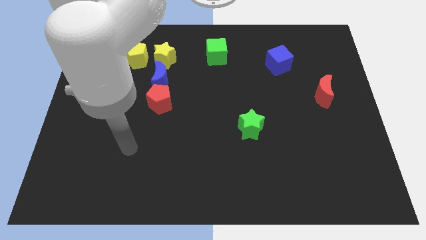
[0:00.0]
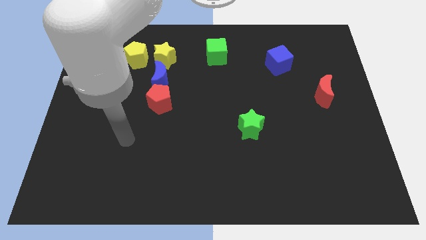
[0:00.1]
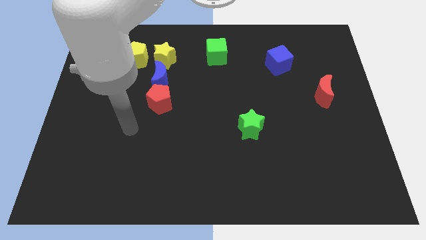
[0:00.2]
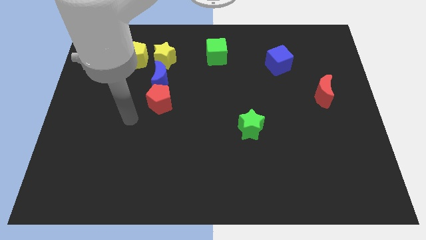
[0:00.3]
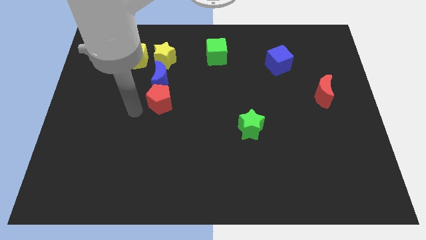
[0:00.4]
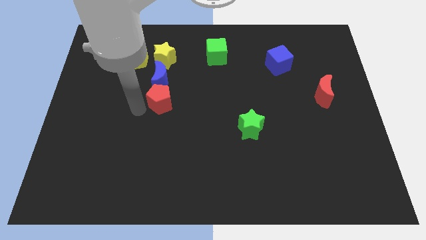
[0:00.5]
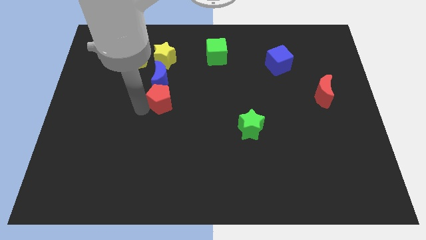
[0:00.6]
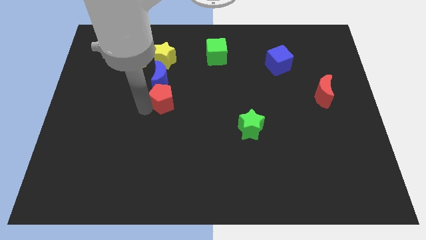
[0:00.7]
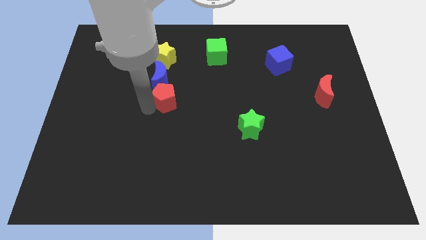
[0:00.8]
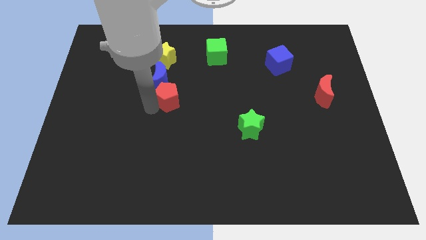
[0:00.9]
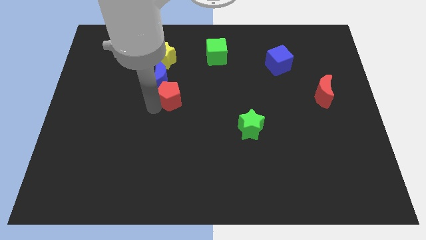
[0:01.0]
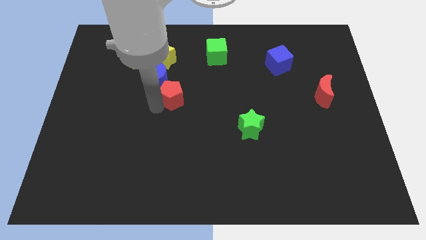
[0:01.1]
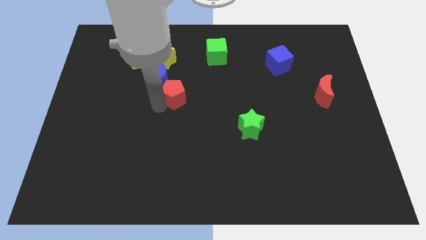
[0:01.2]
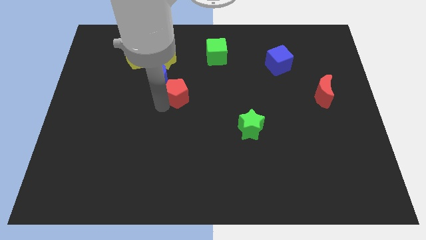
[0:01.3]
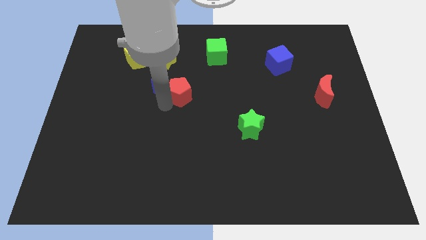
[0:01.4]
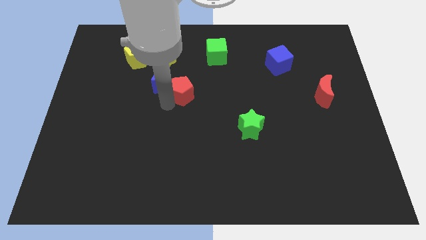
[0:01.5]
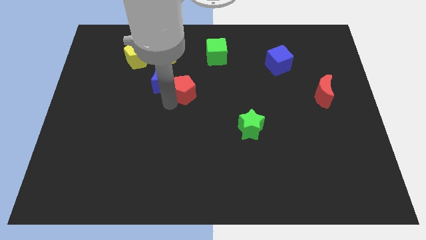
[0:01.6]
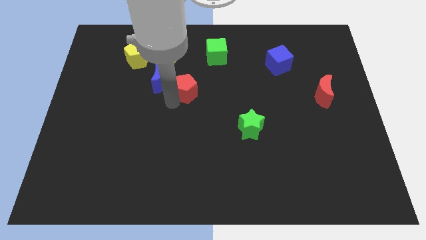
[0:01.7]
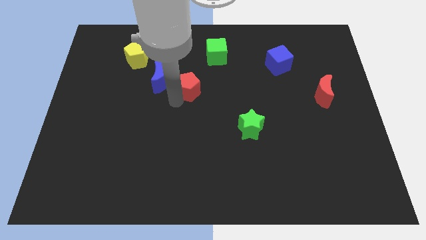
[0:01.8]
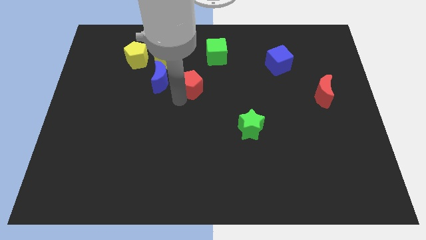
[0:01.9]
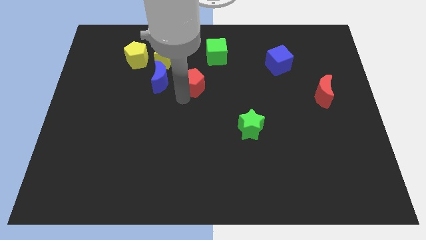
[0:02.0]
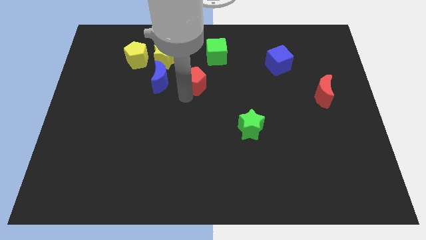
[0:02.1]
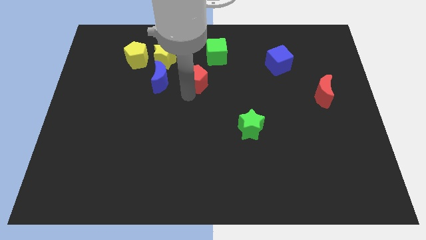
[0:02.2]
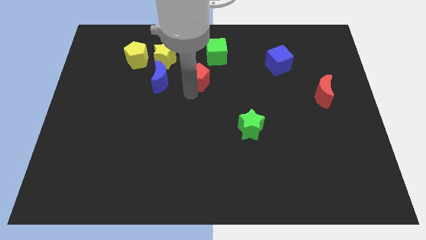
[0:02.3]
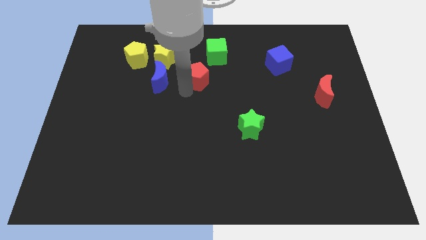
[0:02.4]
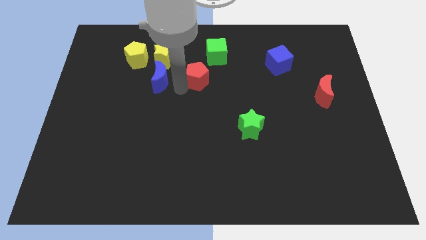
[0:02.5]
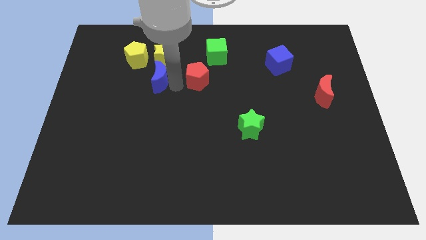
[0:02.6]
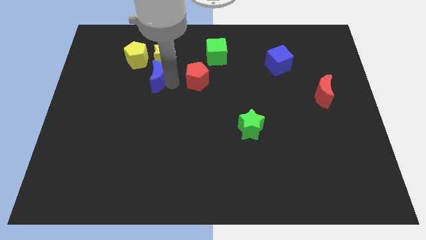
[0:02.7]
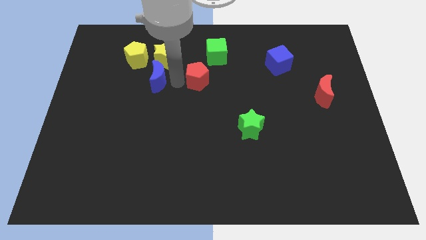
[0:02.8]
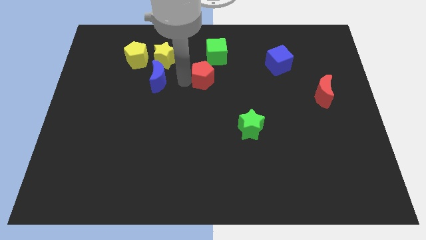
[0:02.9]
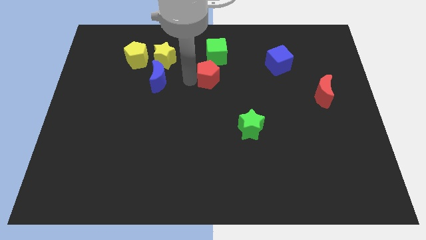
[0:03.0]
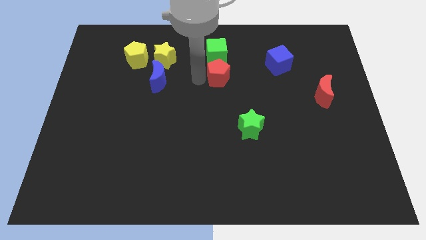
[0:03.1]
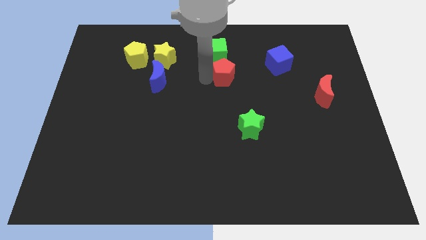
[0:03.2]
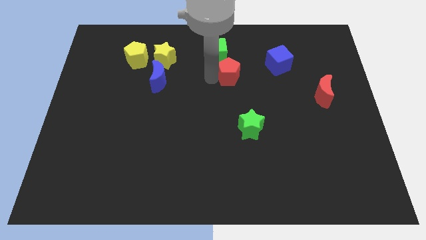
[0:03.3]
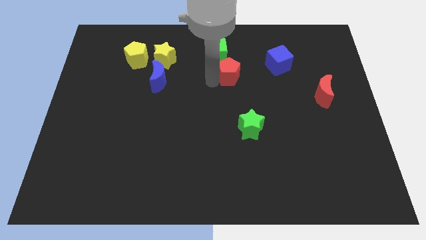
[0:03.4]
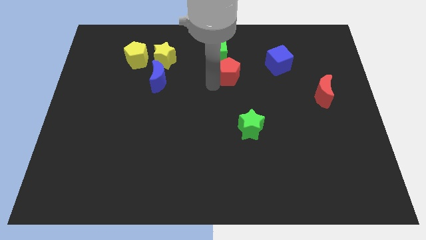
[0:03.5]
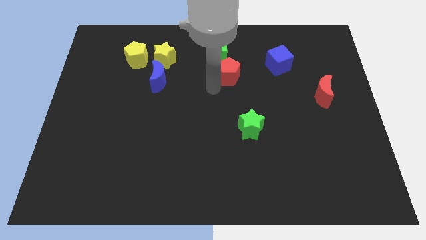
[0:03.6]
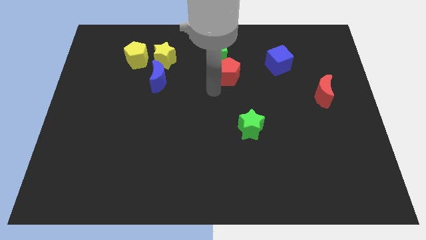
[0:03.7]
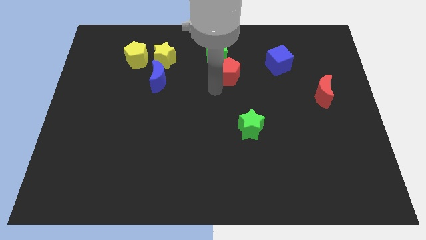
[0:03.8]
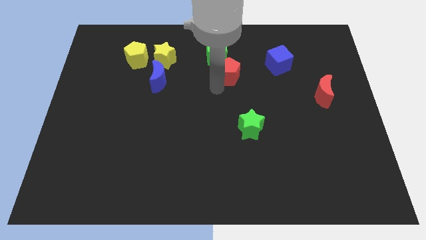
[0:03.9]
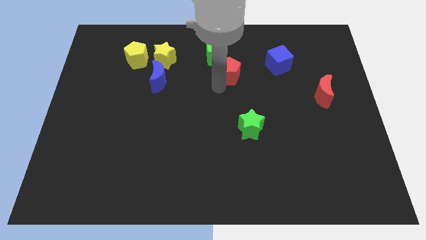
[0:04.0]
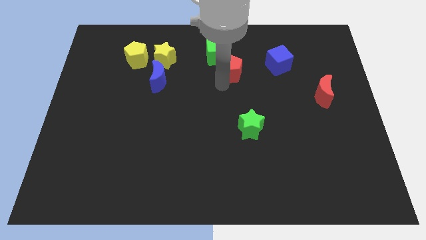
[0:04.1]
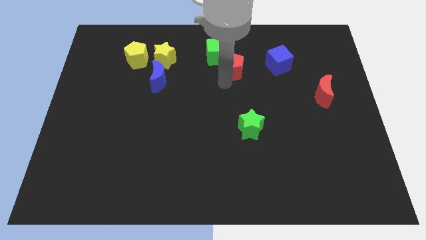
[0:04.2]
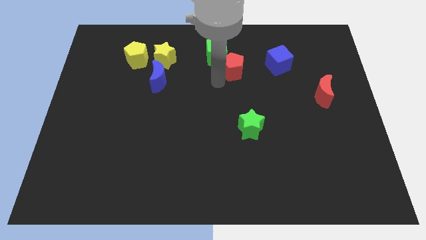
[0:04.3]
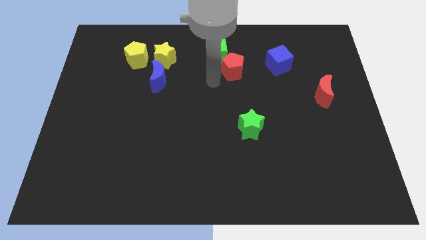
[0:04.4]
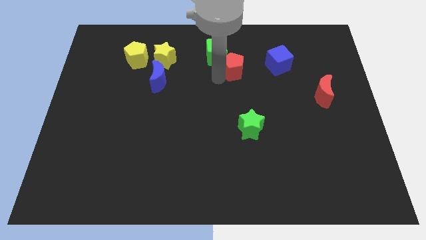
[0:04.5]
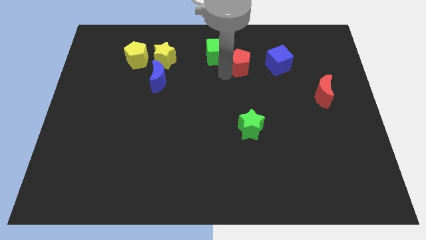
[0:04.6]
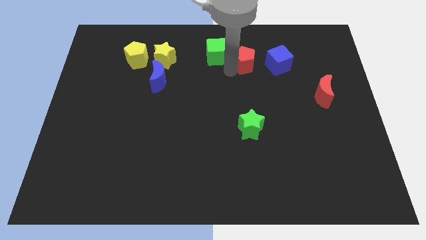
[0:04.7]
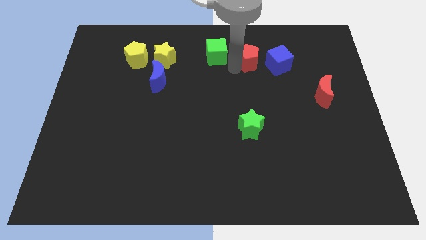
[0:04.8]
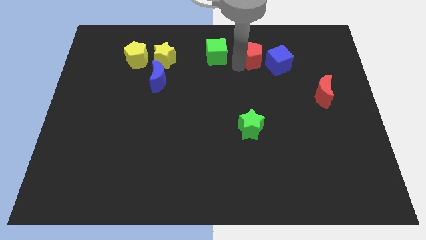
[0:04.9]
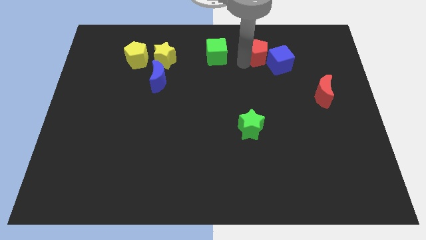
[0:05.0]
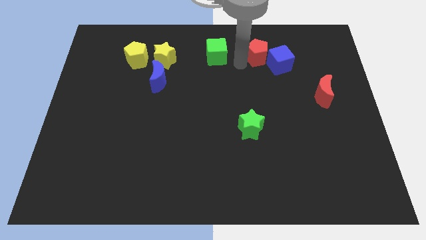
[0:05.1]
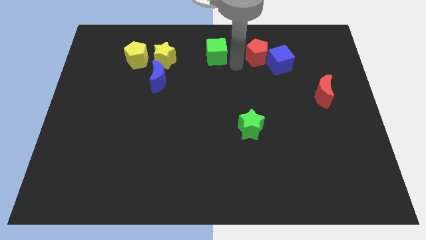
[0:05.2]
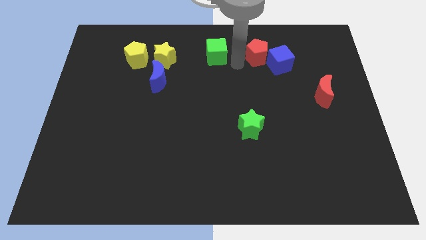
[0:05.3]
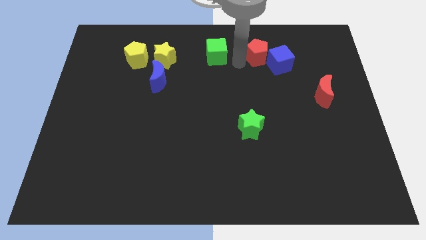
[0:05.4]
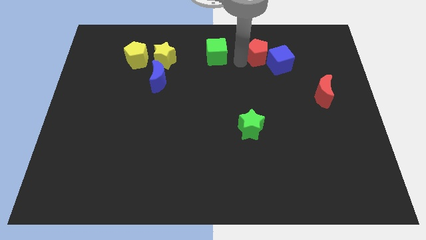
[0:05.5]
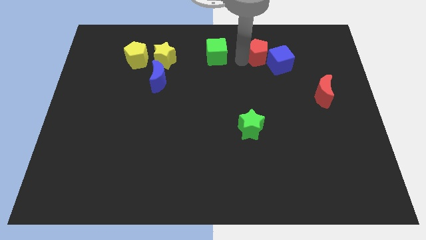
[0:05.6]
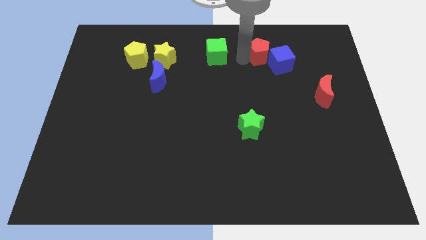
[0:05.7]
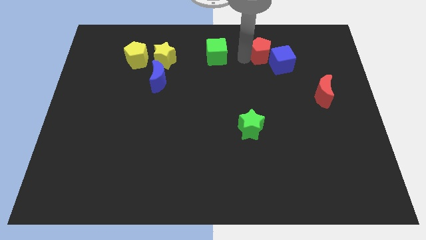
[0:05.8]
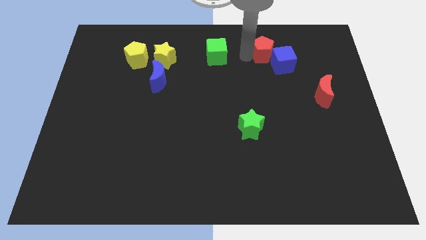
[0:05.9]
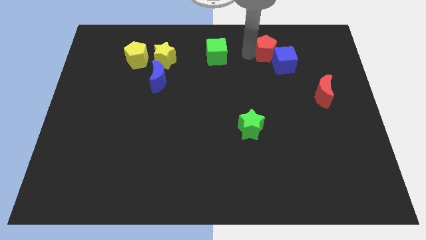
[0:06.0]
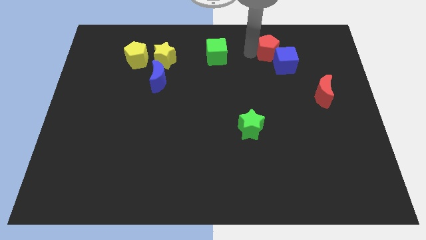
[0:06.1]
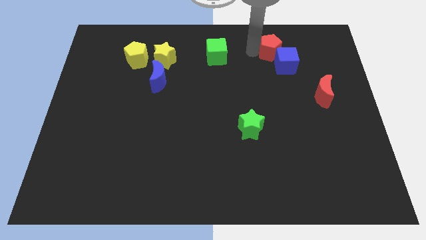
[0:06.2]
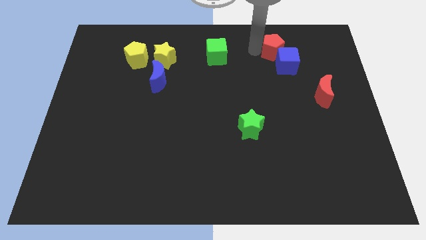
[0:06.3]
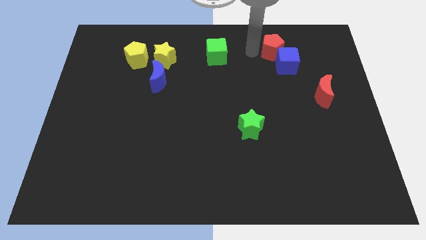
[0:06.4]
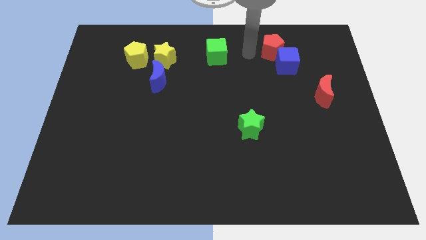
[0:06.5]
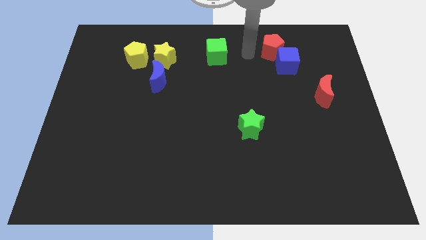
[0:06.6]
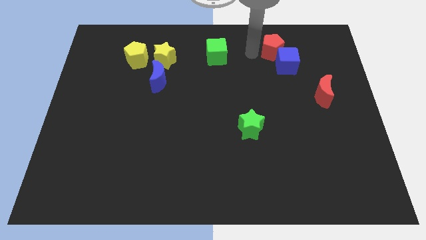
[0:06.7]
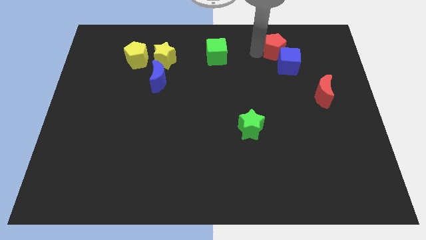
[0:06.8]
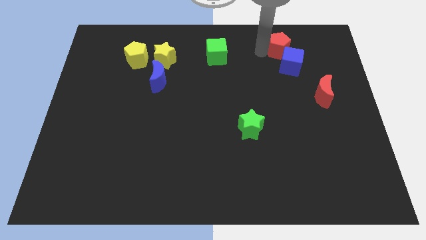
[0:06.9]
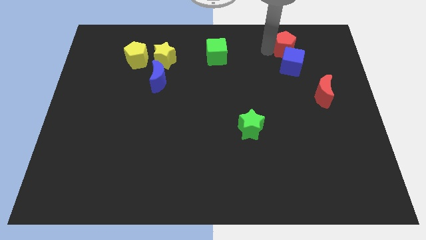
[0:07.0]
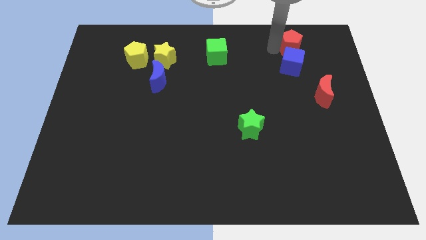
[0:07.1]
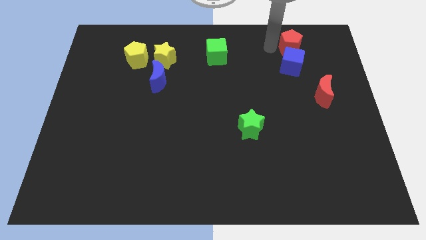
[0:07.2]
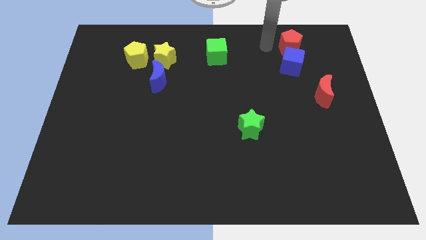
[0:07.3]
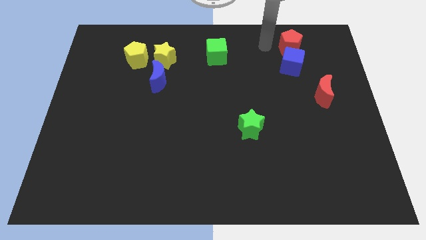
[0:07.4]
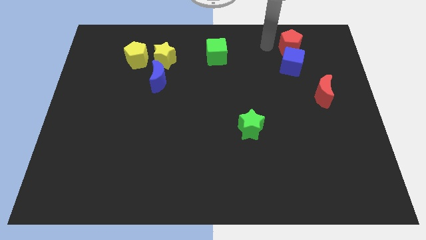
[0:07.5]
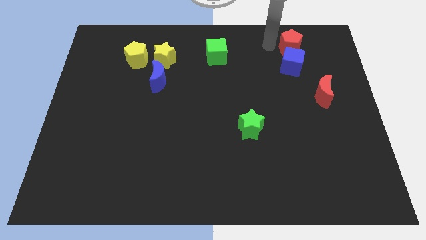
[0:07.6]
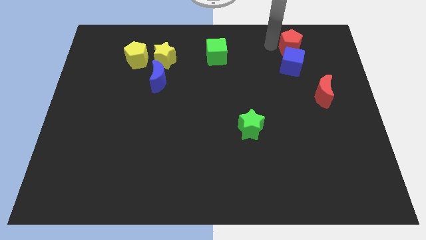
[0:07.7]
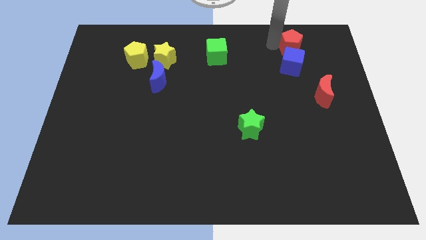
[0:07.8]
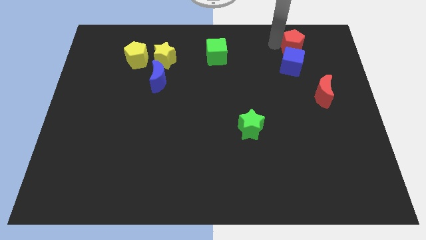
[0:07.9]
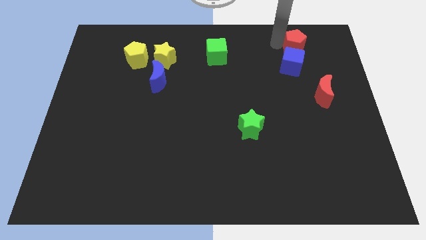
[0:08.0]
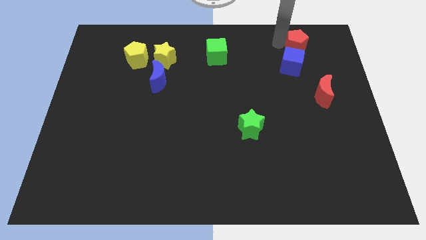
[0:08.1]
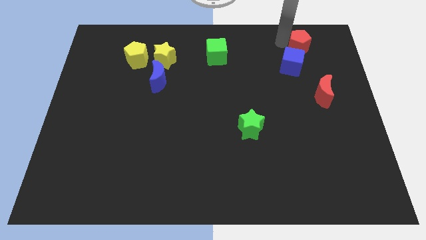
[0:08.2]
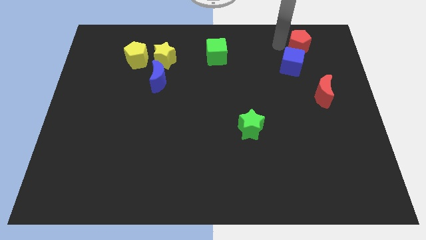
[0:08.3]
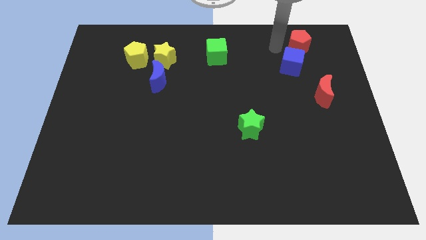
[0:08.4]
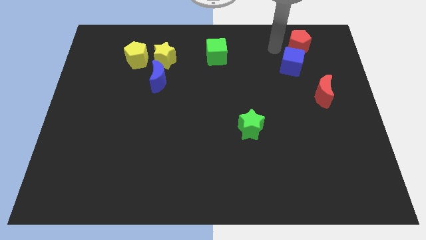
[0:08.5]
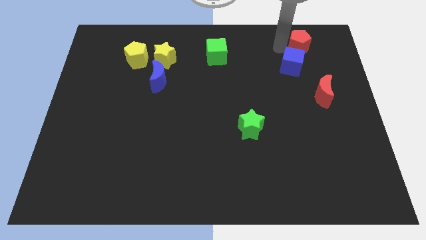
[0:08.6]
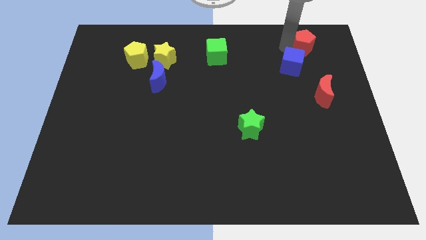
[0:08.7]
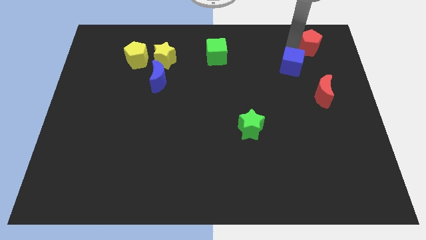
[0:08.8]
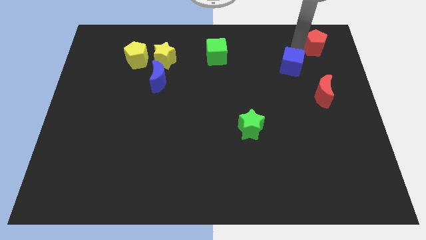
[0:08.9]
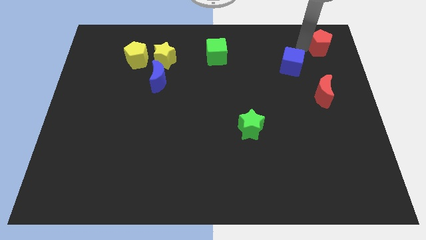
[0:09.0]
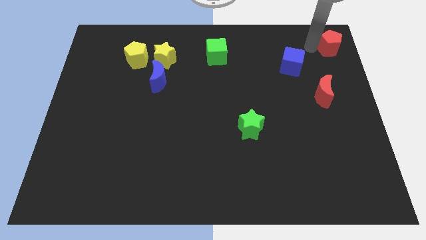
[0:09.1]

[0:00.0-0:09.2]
put the red pentagon to the upper right corner
